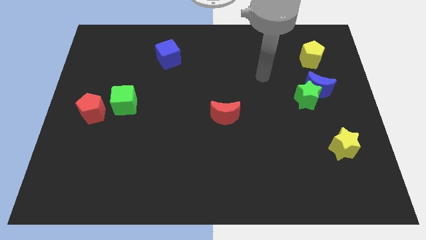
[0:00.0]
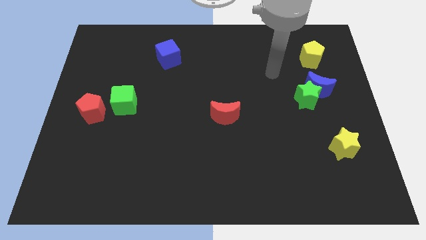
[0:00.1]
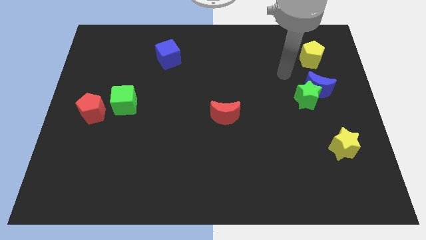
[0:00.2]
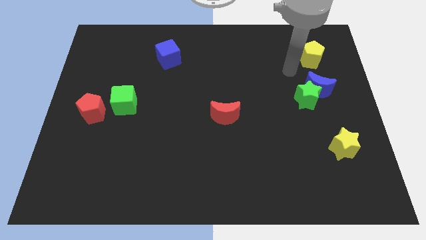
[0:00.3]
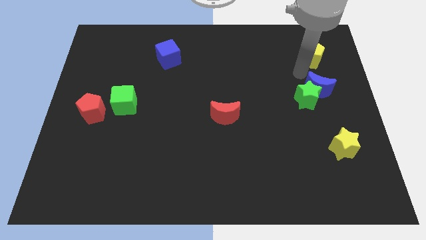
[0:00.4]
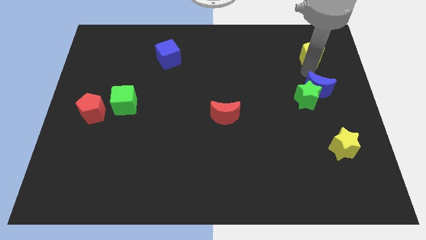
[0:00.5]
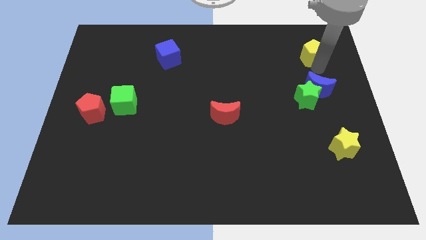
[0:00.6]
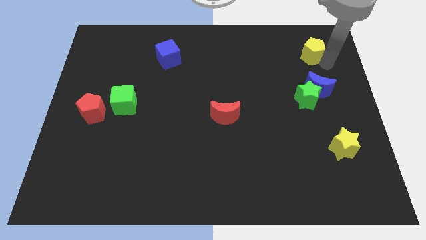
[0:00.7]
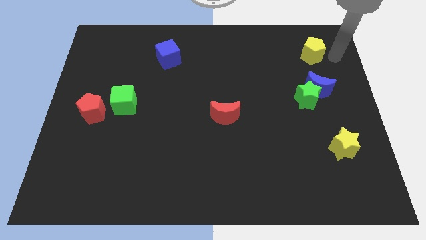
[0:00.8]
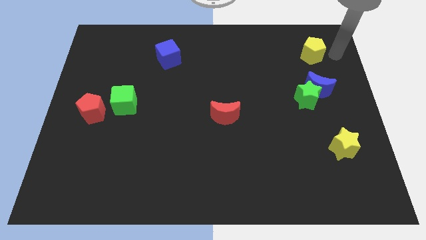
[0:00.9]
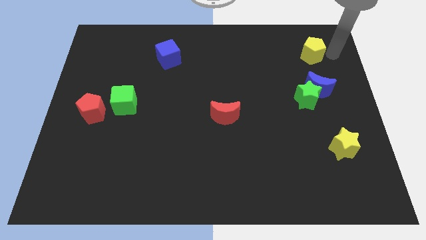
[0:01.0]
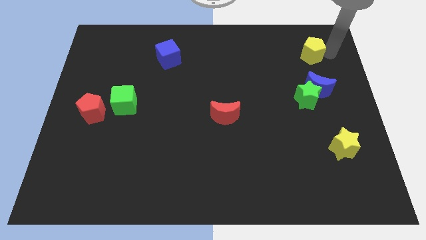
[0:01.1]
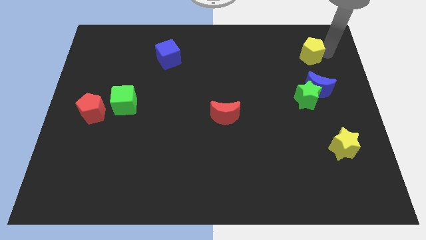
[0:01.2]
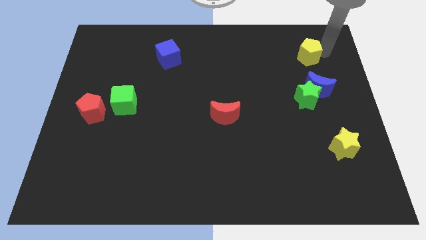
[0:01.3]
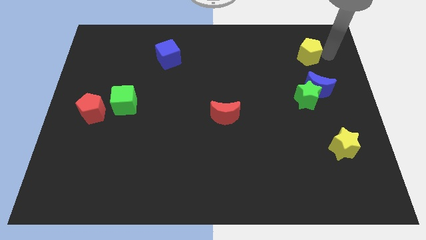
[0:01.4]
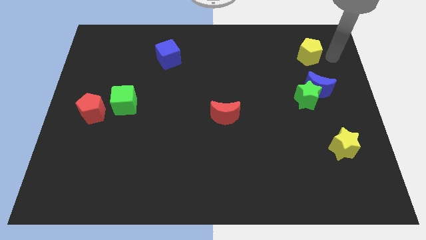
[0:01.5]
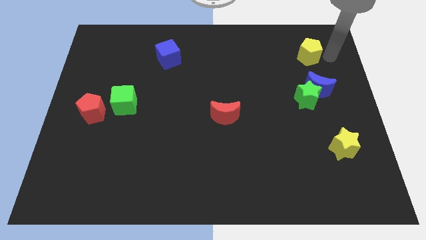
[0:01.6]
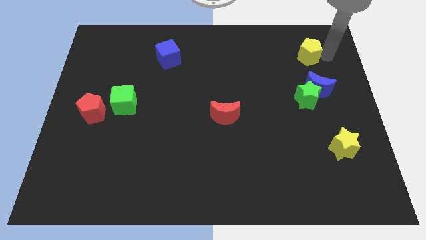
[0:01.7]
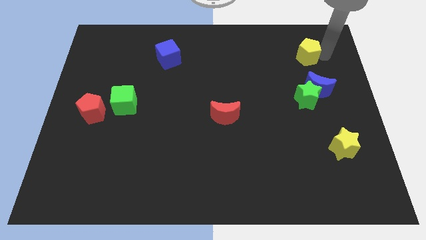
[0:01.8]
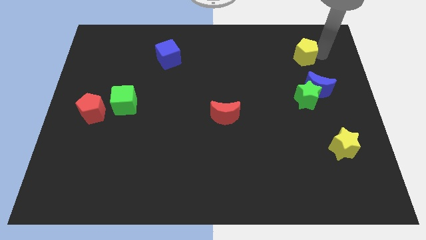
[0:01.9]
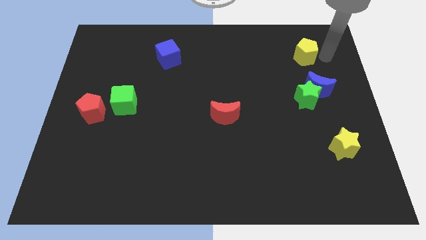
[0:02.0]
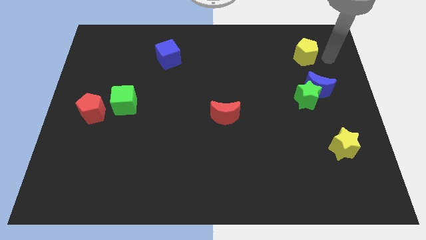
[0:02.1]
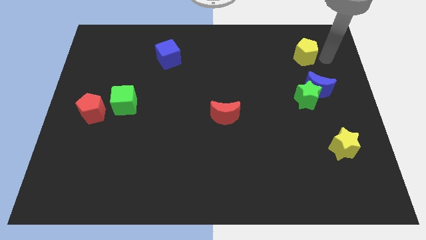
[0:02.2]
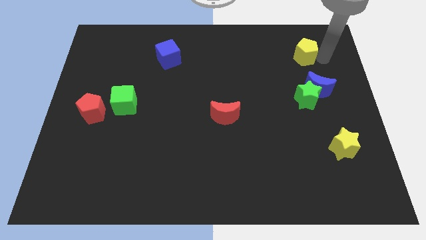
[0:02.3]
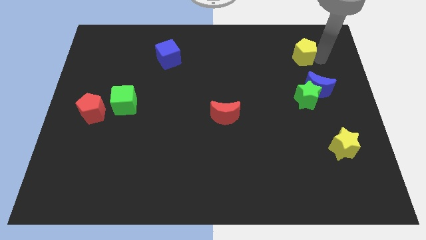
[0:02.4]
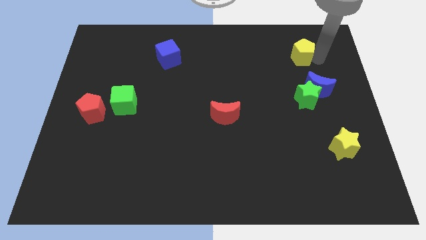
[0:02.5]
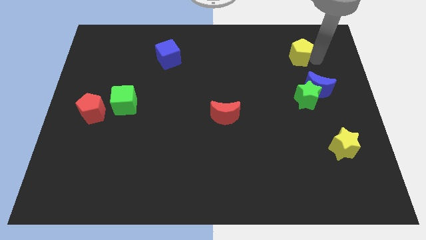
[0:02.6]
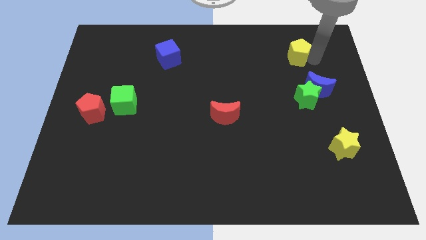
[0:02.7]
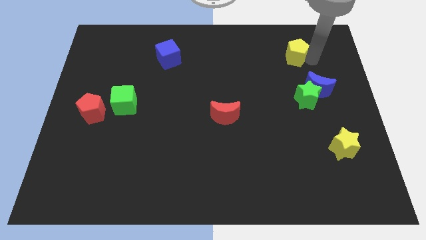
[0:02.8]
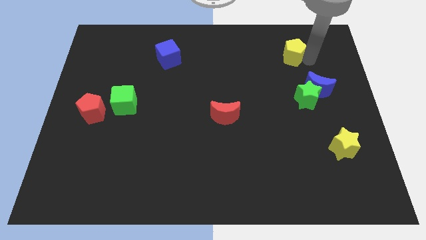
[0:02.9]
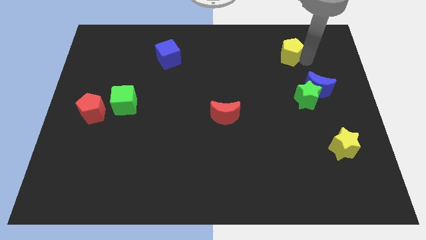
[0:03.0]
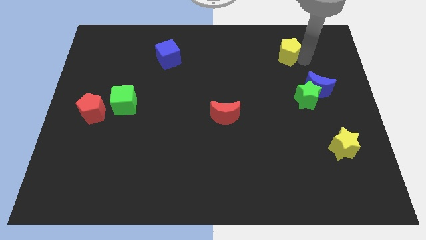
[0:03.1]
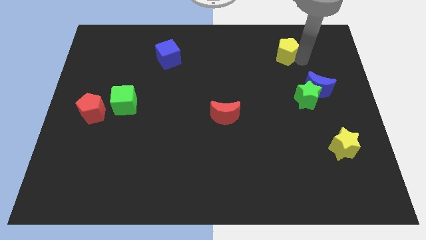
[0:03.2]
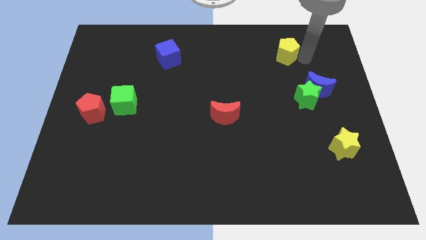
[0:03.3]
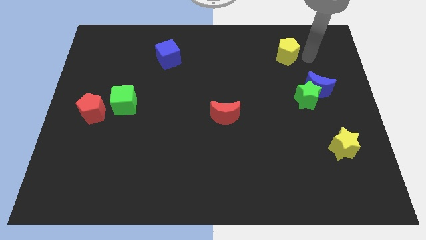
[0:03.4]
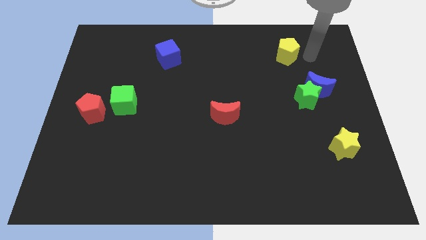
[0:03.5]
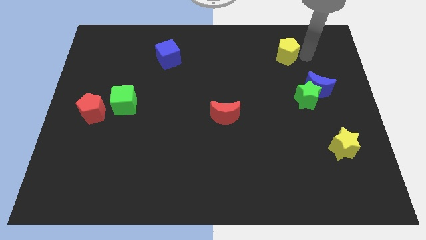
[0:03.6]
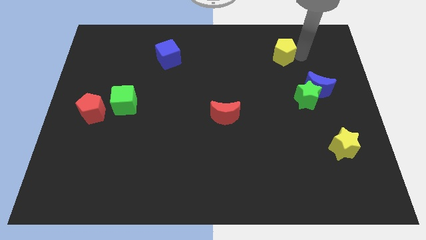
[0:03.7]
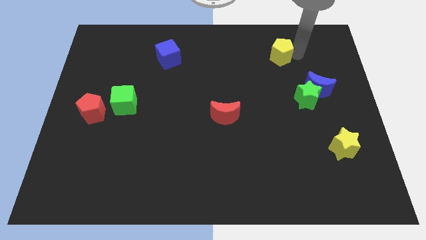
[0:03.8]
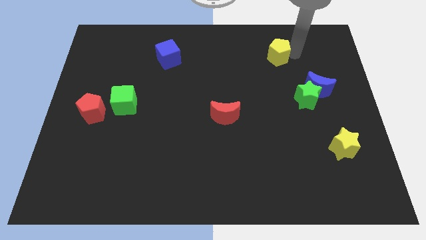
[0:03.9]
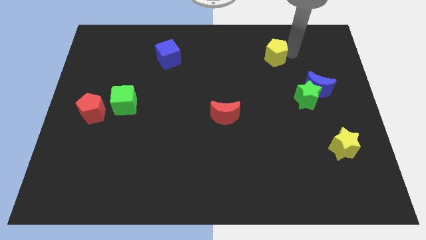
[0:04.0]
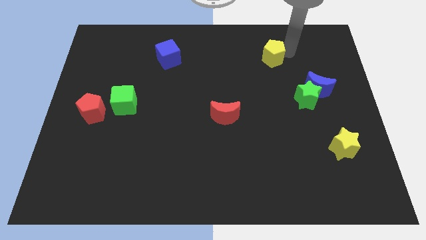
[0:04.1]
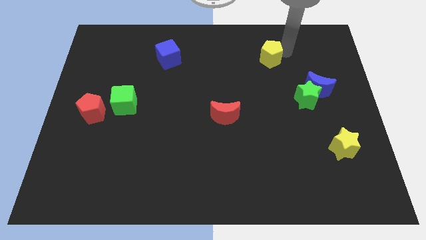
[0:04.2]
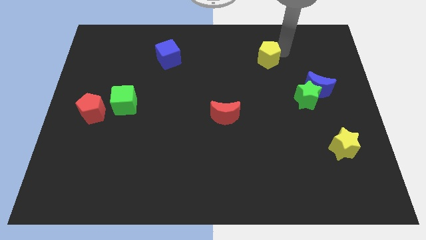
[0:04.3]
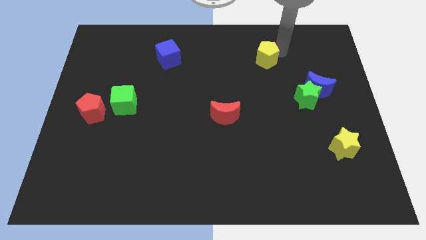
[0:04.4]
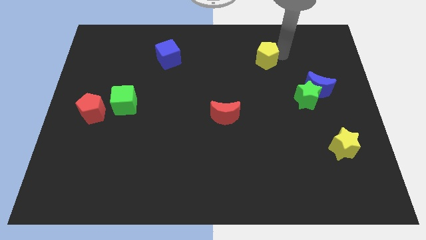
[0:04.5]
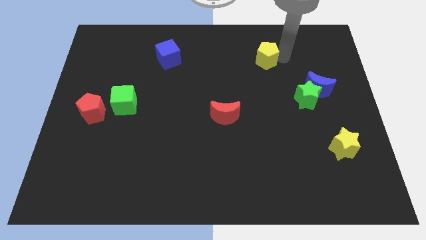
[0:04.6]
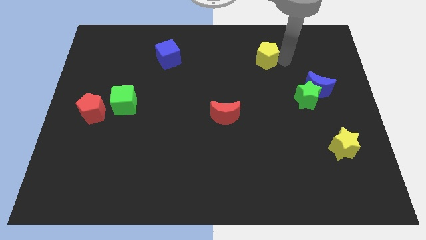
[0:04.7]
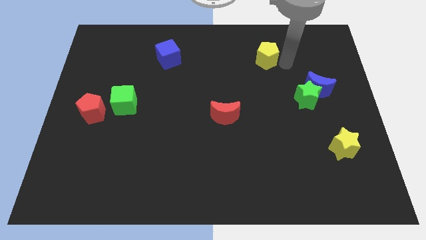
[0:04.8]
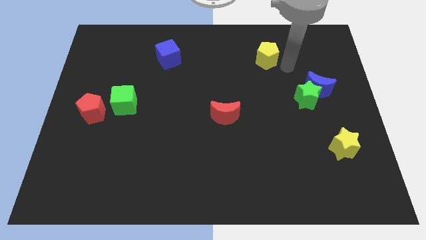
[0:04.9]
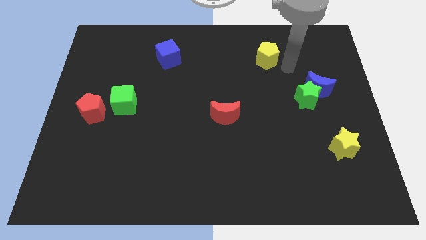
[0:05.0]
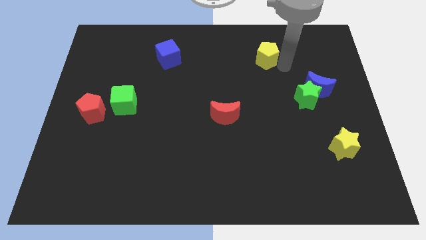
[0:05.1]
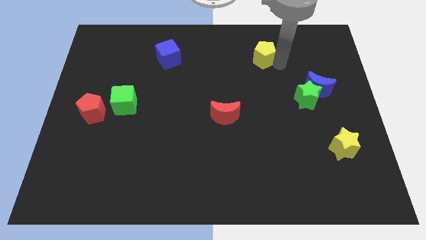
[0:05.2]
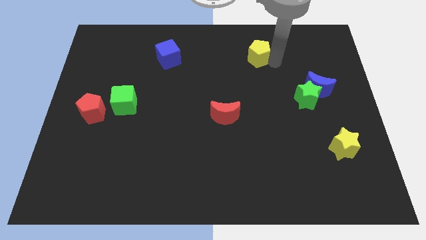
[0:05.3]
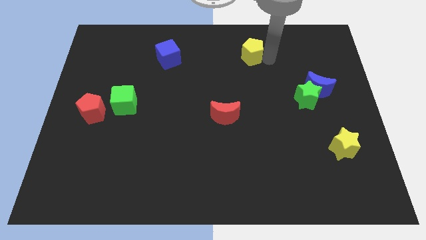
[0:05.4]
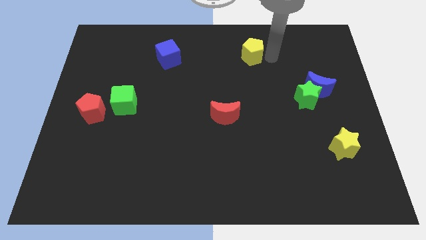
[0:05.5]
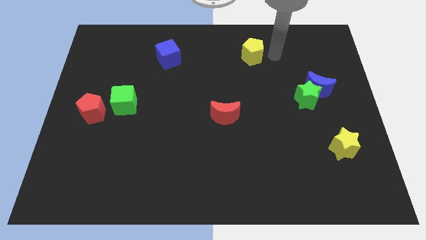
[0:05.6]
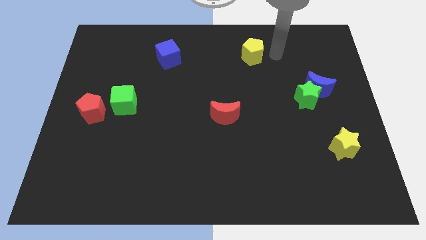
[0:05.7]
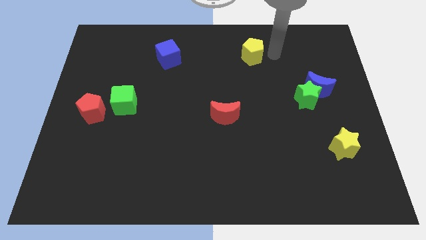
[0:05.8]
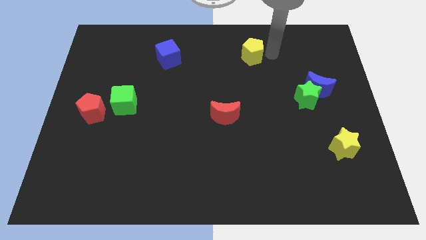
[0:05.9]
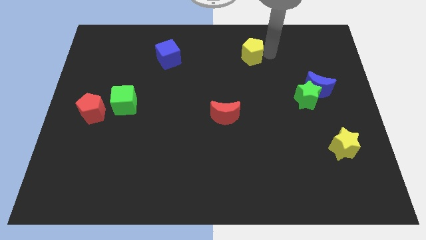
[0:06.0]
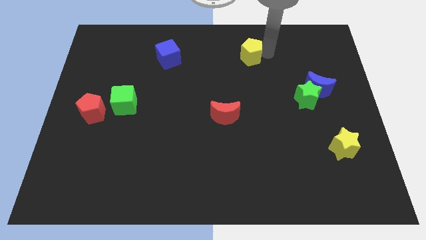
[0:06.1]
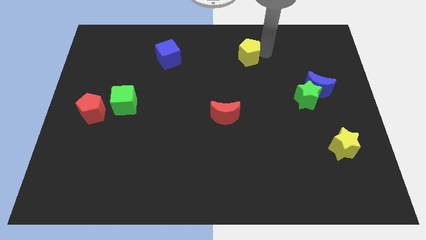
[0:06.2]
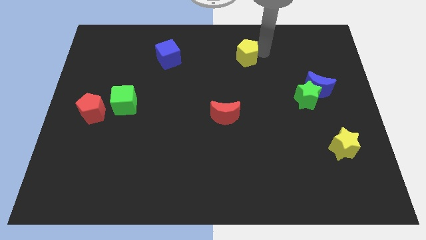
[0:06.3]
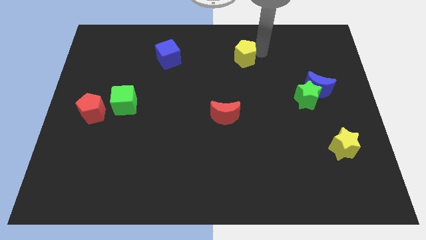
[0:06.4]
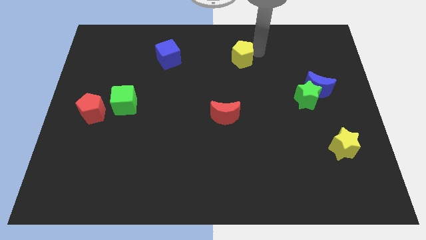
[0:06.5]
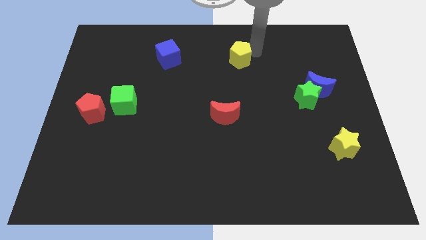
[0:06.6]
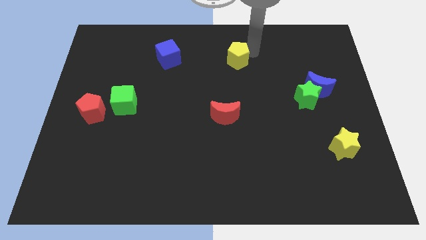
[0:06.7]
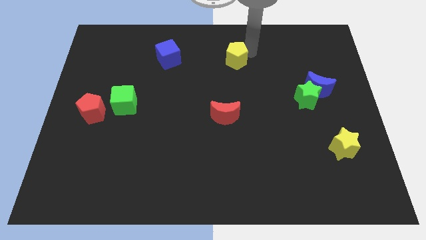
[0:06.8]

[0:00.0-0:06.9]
push the yellow pentagon to the left

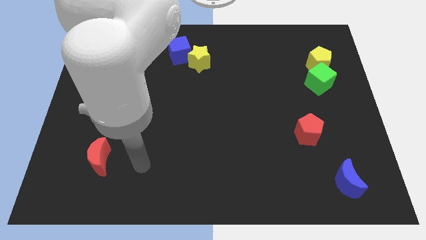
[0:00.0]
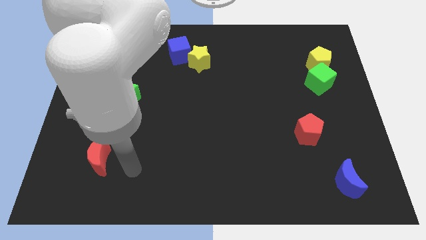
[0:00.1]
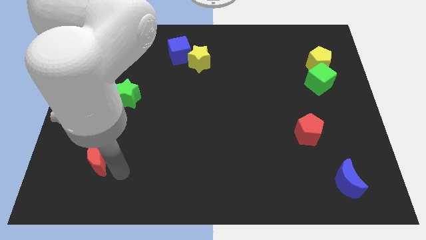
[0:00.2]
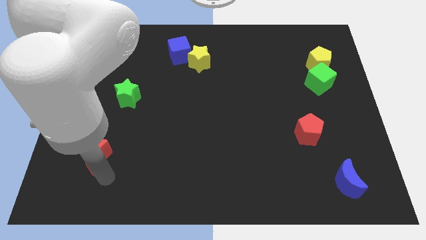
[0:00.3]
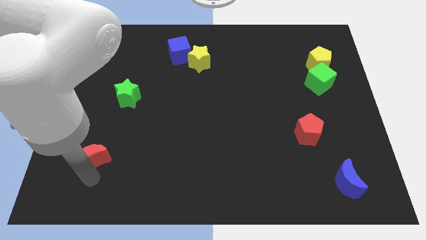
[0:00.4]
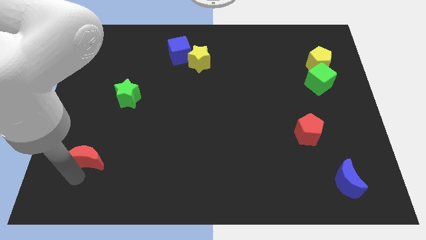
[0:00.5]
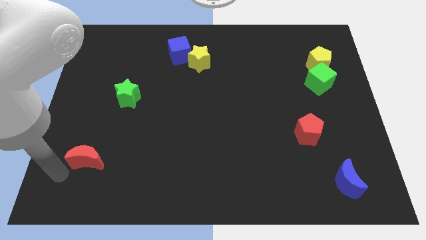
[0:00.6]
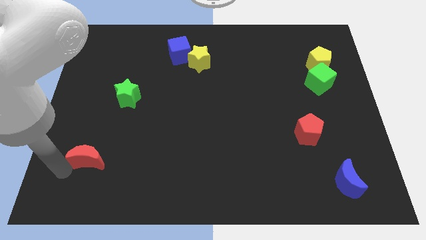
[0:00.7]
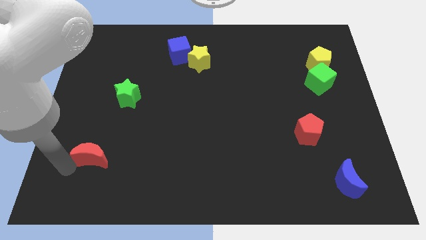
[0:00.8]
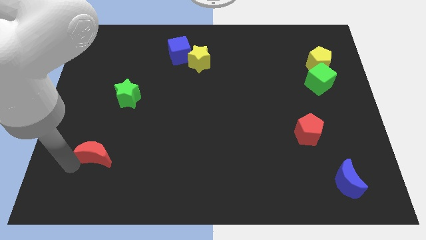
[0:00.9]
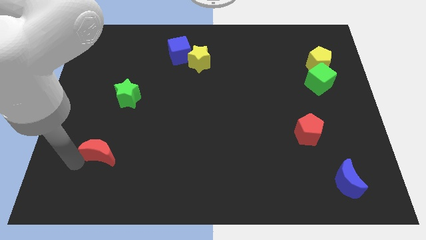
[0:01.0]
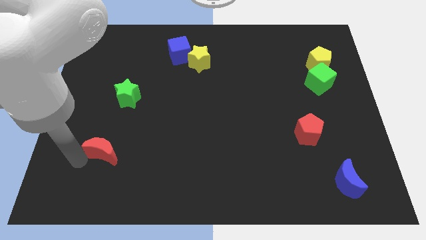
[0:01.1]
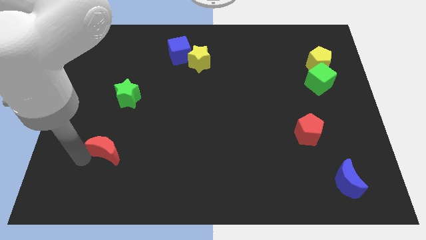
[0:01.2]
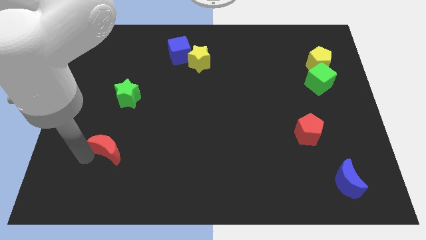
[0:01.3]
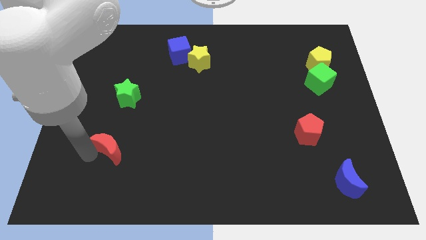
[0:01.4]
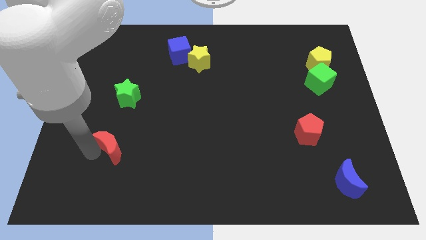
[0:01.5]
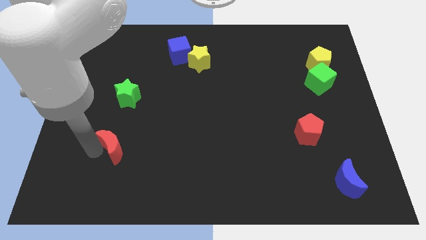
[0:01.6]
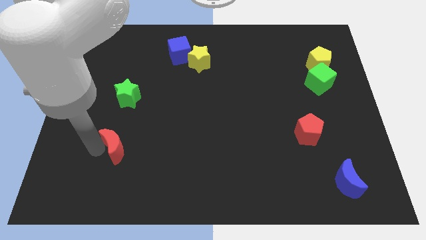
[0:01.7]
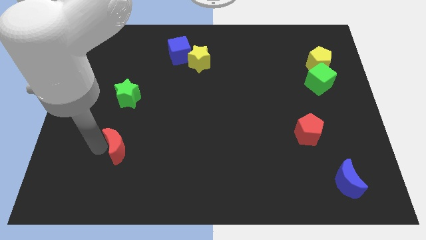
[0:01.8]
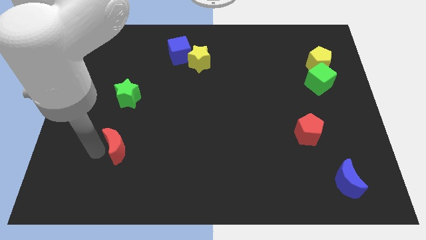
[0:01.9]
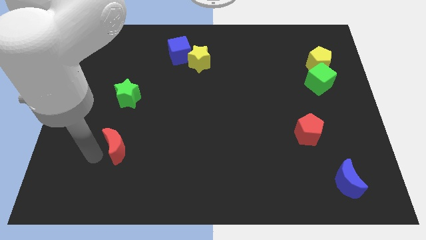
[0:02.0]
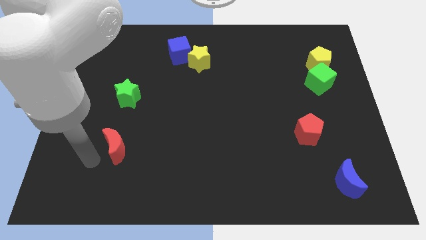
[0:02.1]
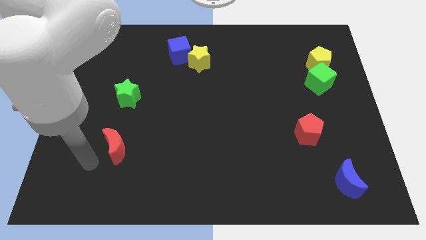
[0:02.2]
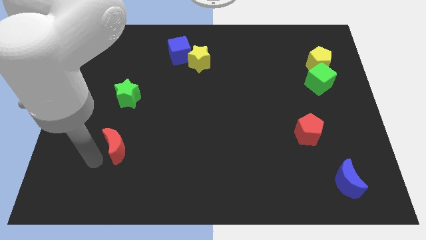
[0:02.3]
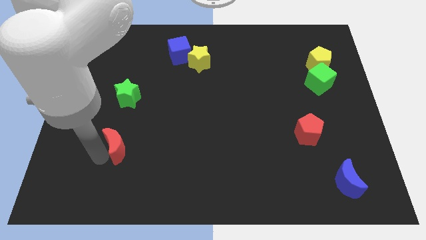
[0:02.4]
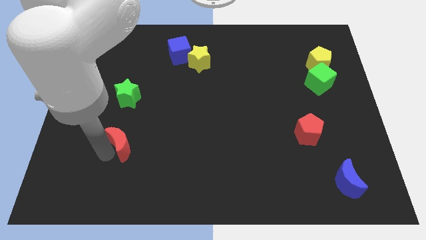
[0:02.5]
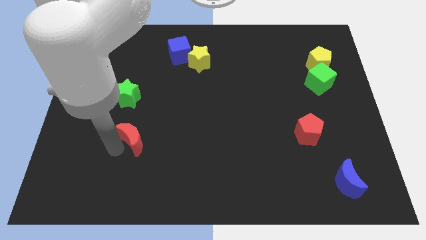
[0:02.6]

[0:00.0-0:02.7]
move the red moon a little upwards and then right
